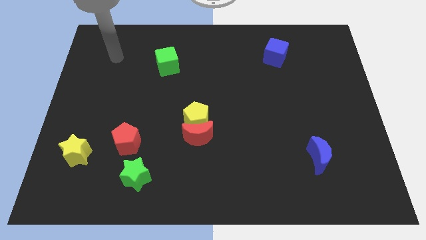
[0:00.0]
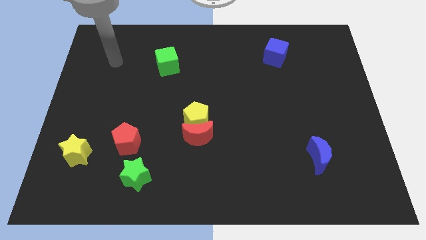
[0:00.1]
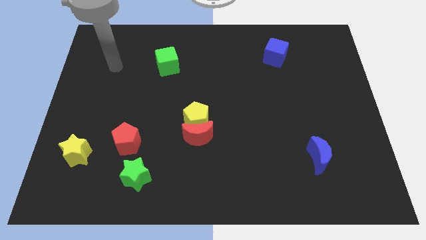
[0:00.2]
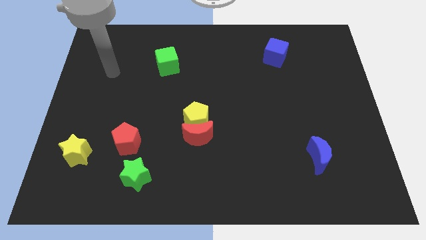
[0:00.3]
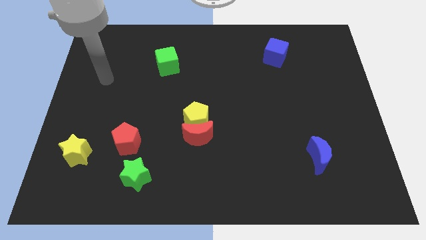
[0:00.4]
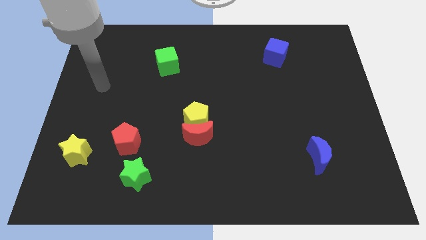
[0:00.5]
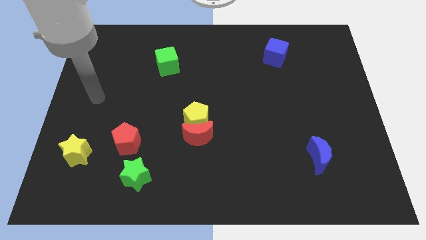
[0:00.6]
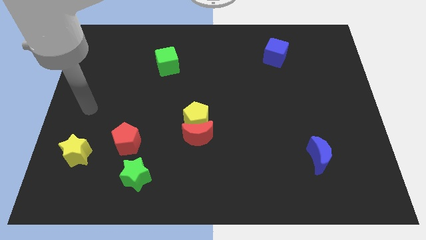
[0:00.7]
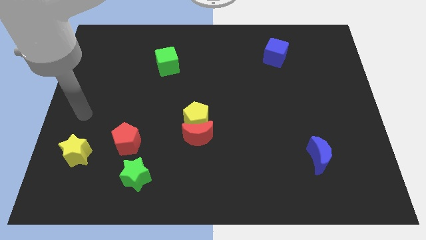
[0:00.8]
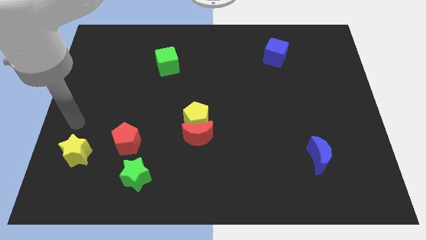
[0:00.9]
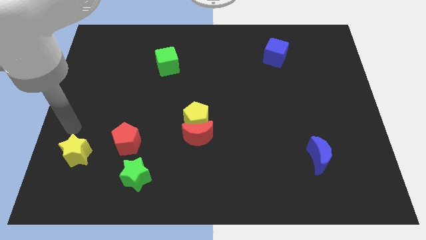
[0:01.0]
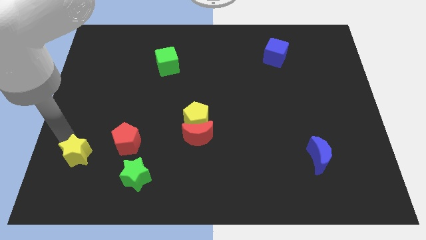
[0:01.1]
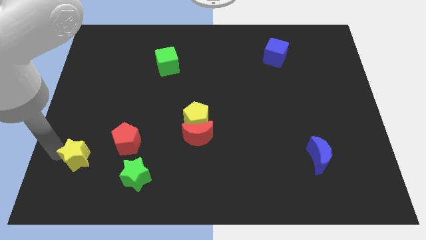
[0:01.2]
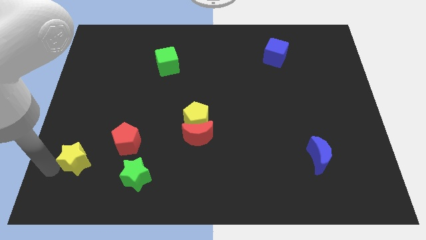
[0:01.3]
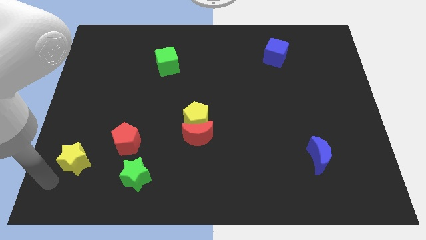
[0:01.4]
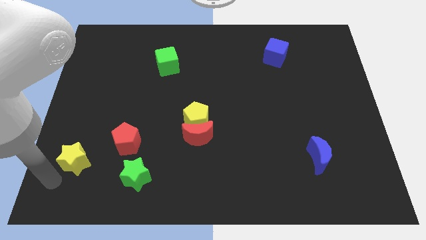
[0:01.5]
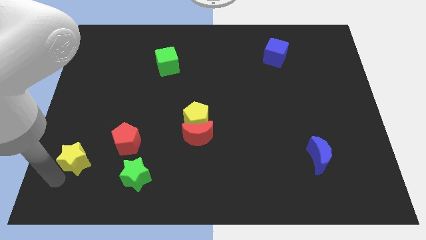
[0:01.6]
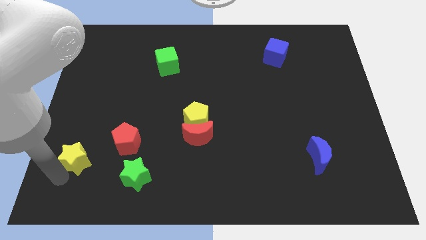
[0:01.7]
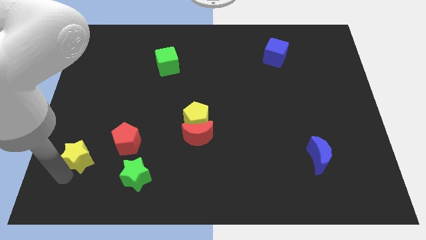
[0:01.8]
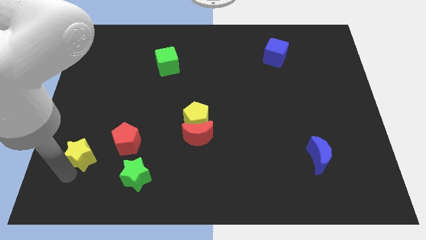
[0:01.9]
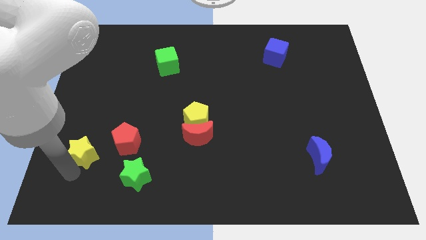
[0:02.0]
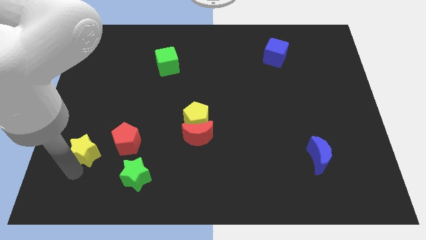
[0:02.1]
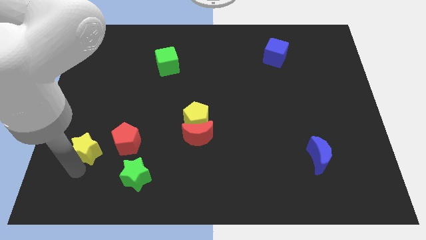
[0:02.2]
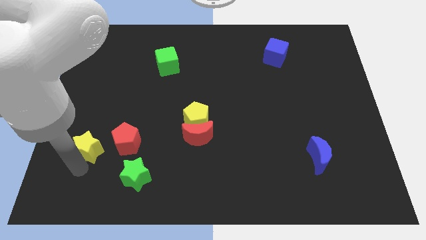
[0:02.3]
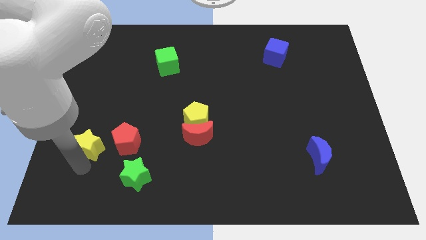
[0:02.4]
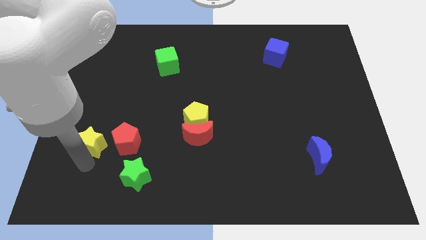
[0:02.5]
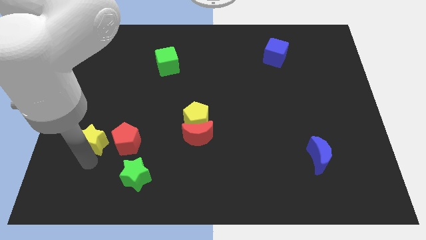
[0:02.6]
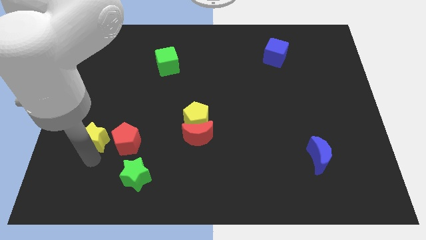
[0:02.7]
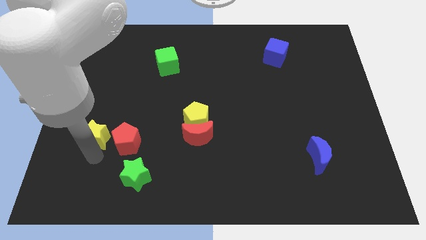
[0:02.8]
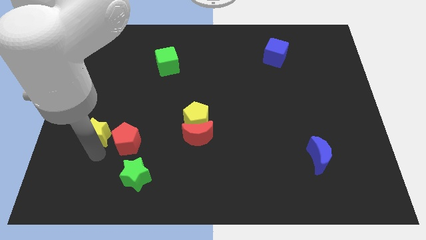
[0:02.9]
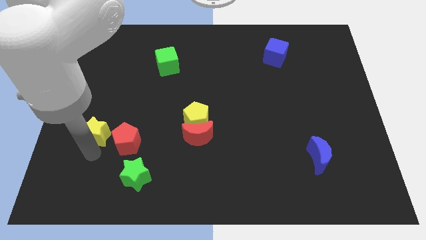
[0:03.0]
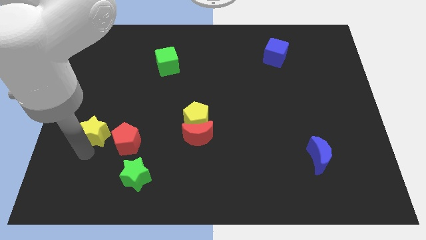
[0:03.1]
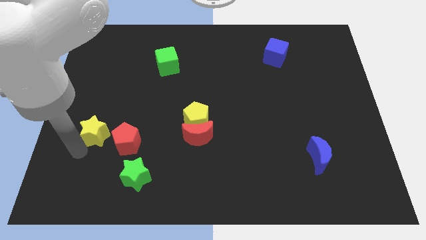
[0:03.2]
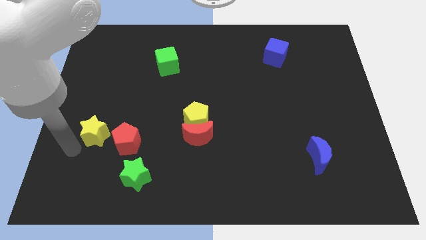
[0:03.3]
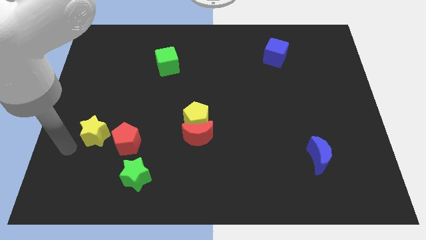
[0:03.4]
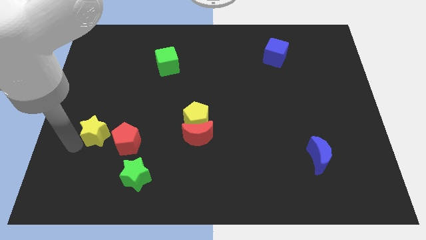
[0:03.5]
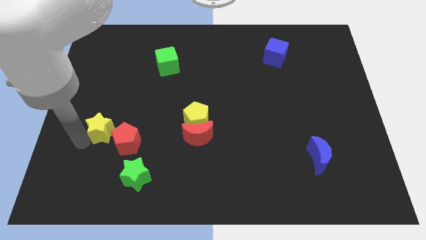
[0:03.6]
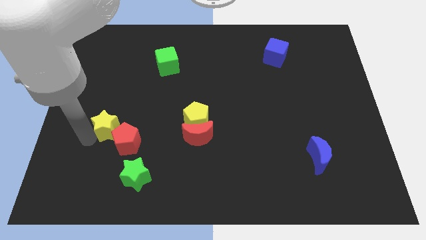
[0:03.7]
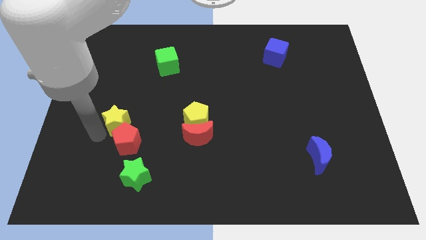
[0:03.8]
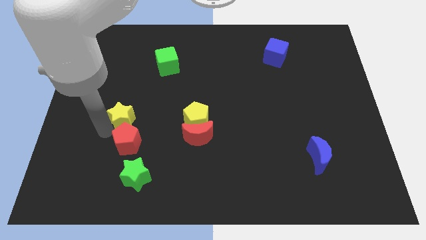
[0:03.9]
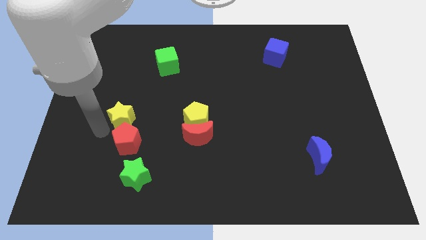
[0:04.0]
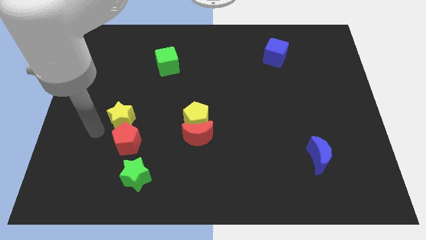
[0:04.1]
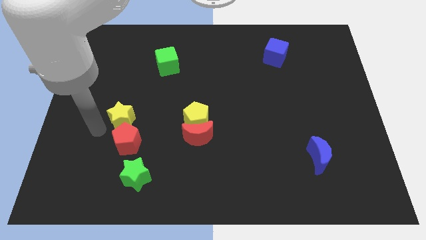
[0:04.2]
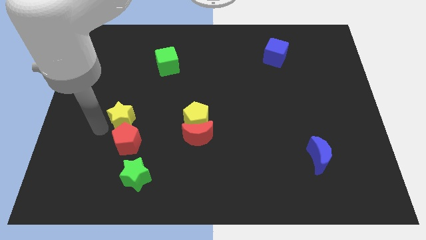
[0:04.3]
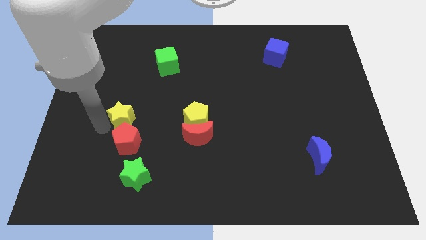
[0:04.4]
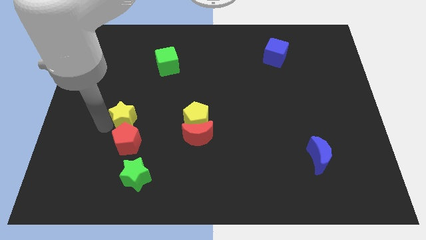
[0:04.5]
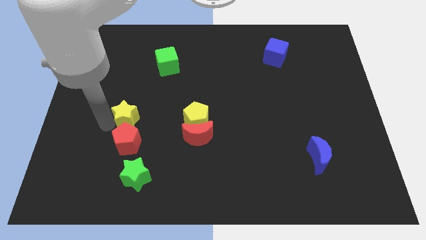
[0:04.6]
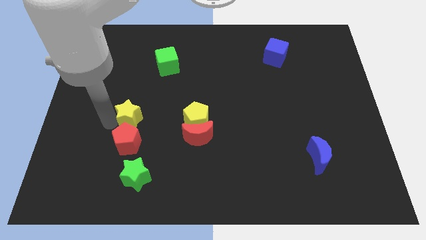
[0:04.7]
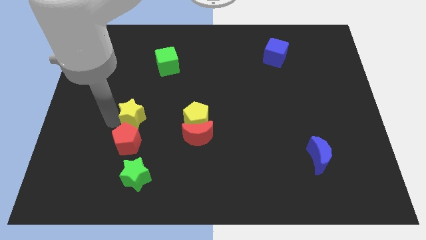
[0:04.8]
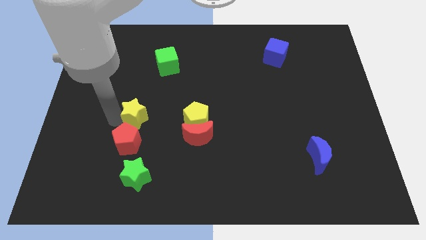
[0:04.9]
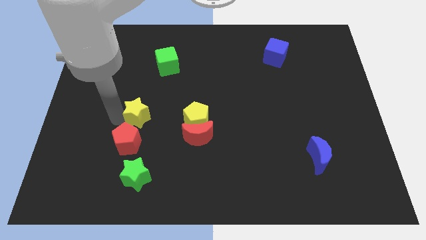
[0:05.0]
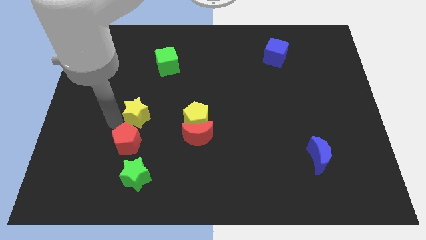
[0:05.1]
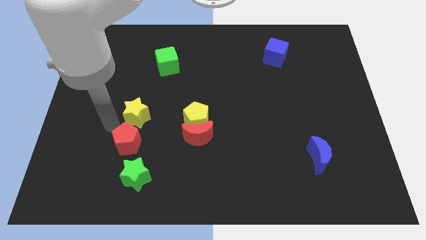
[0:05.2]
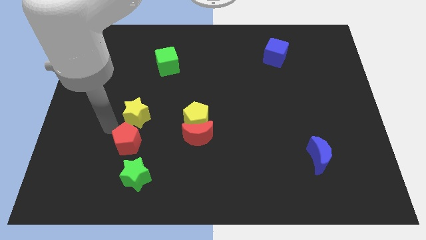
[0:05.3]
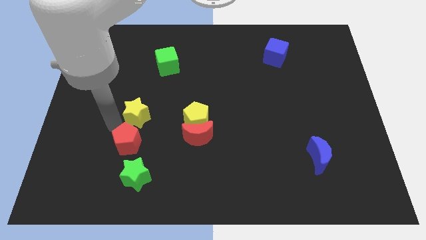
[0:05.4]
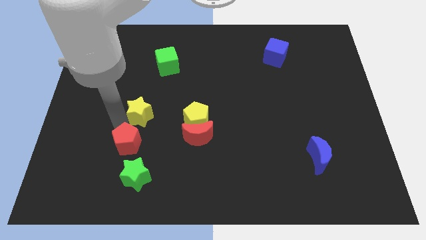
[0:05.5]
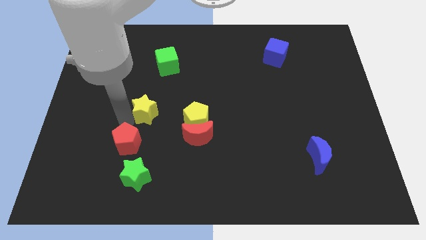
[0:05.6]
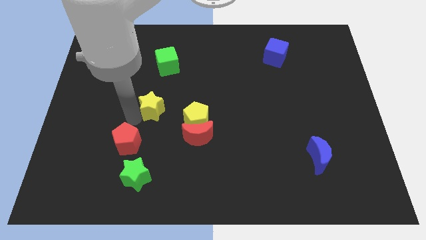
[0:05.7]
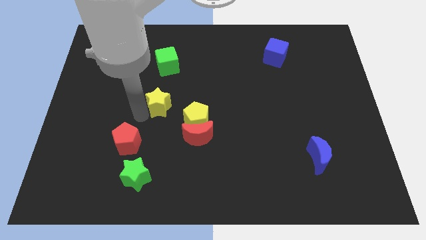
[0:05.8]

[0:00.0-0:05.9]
put the yellow star to the center

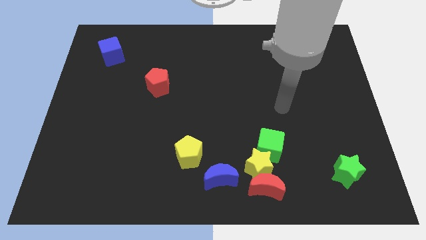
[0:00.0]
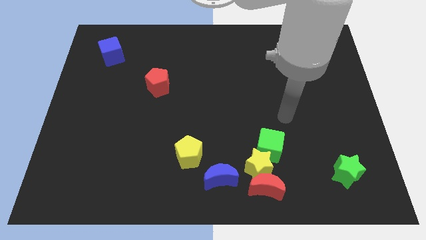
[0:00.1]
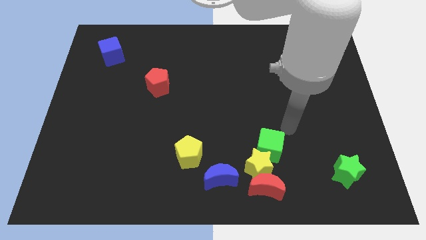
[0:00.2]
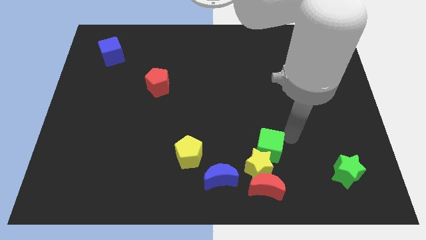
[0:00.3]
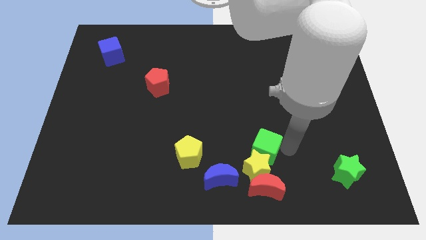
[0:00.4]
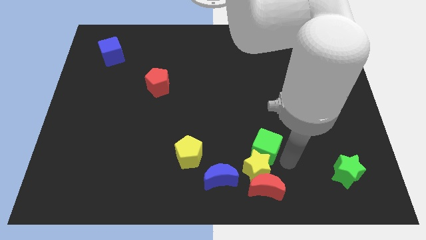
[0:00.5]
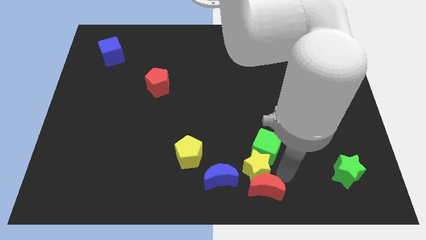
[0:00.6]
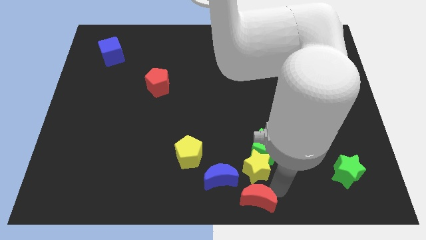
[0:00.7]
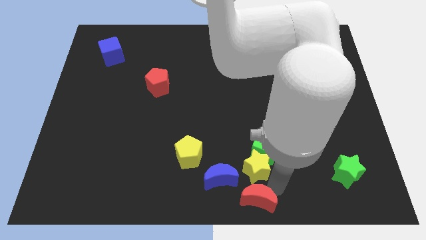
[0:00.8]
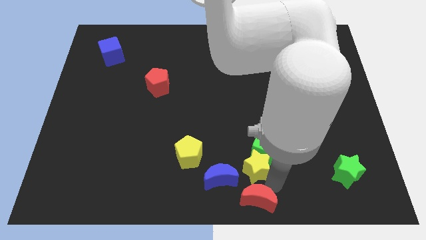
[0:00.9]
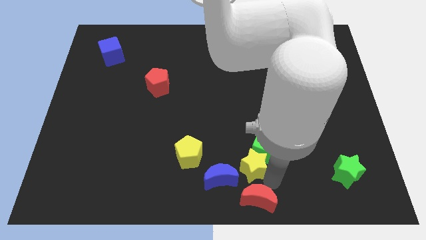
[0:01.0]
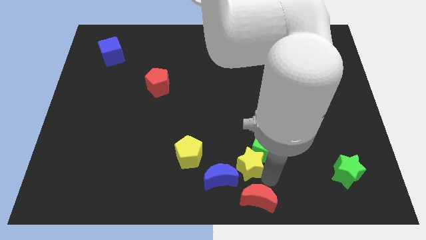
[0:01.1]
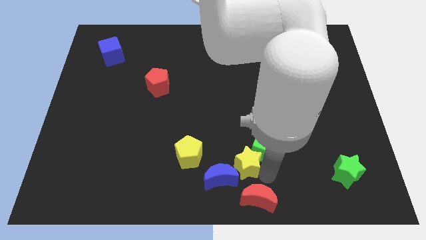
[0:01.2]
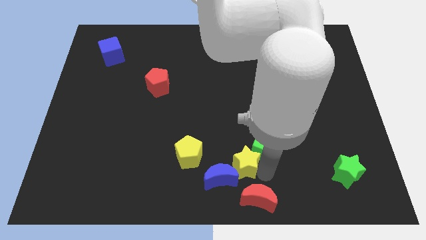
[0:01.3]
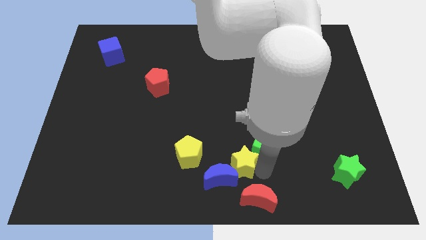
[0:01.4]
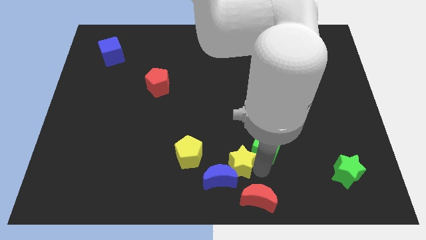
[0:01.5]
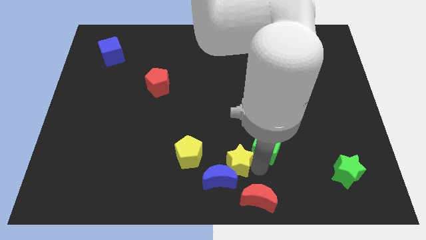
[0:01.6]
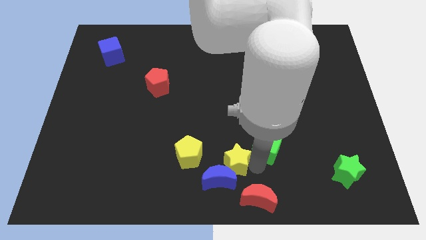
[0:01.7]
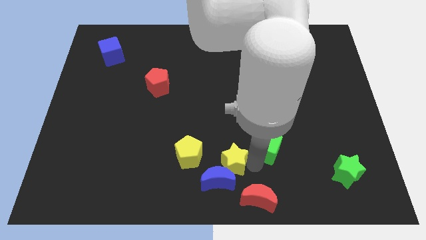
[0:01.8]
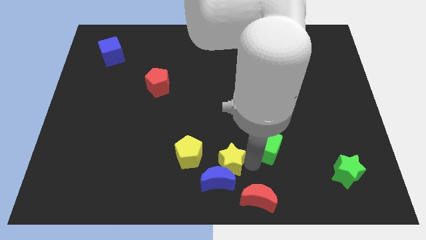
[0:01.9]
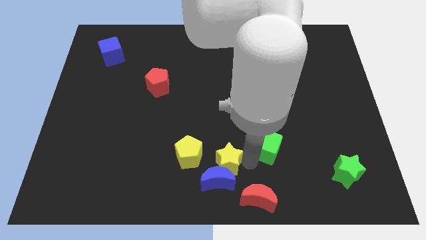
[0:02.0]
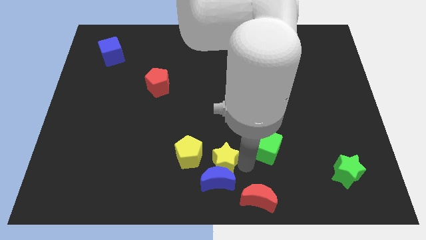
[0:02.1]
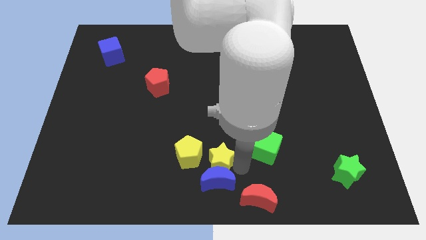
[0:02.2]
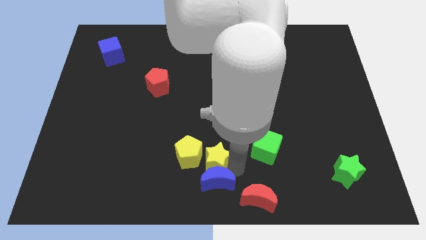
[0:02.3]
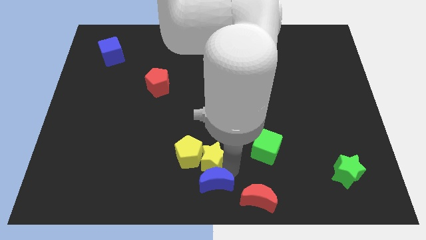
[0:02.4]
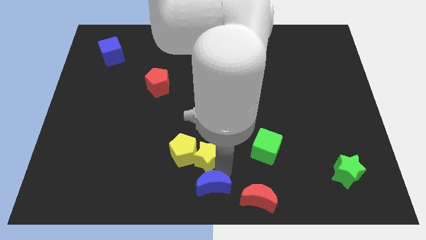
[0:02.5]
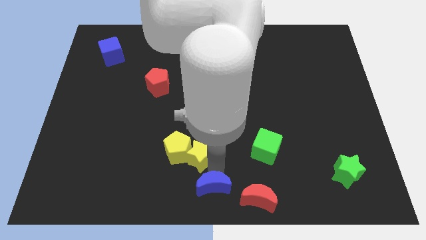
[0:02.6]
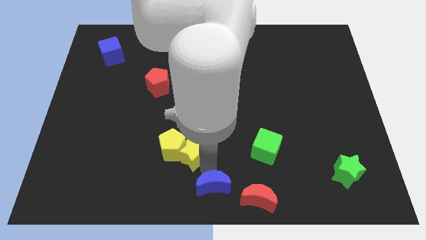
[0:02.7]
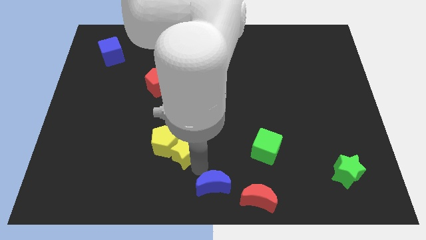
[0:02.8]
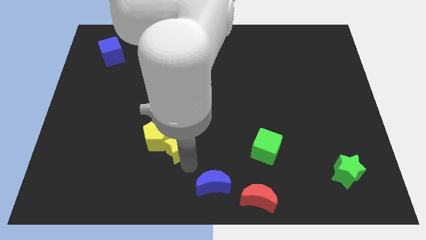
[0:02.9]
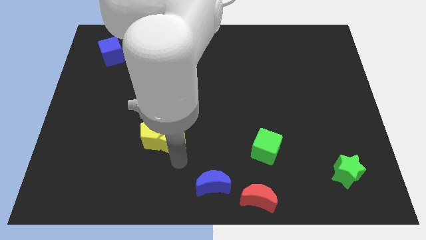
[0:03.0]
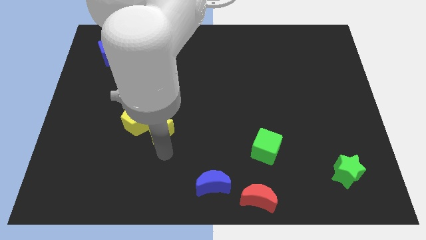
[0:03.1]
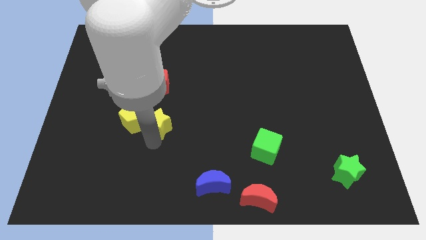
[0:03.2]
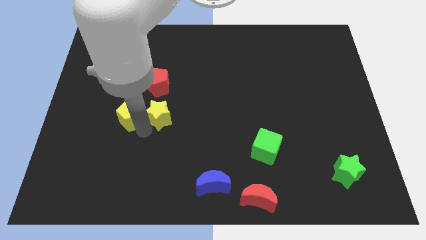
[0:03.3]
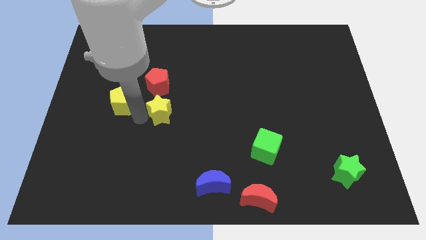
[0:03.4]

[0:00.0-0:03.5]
push the yellow star to the center
